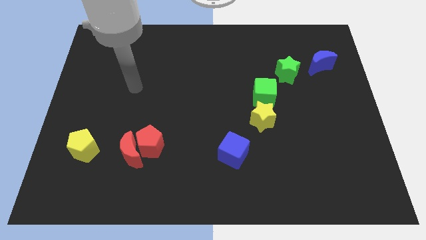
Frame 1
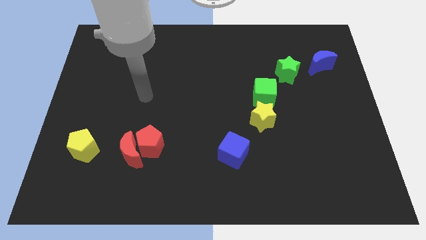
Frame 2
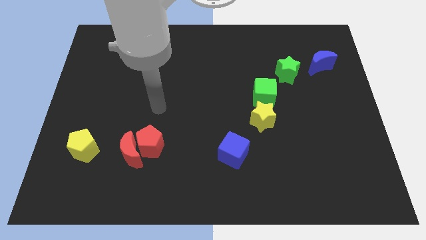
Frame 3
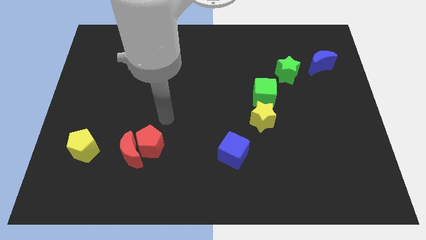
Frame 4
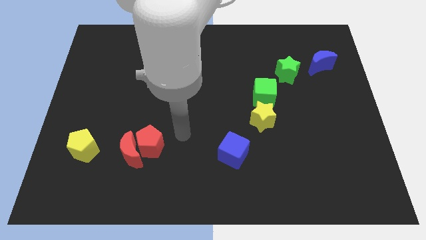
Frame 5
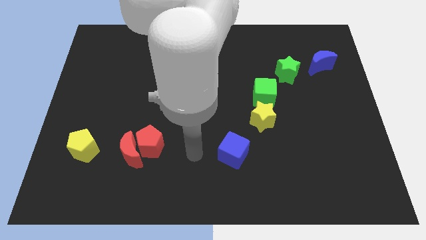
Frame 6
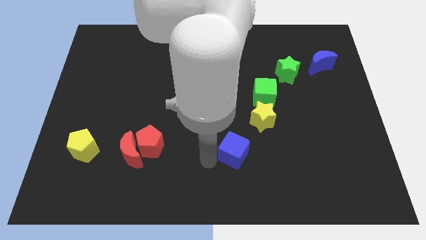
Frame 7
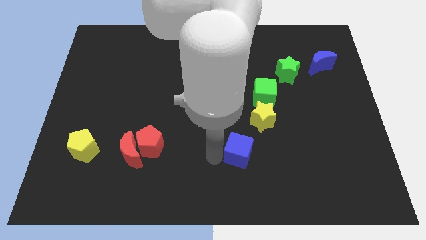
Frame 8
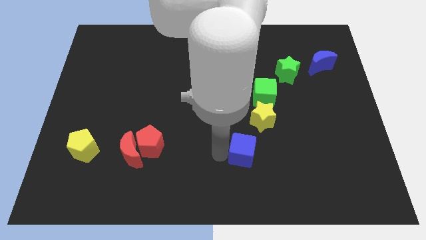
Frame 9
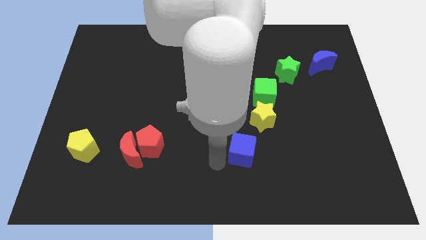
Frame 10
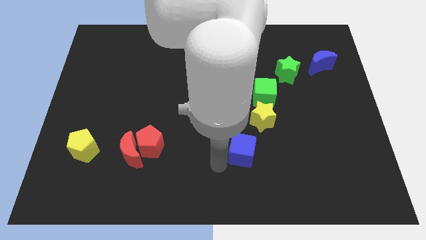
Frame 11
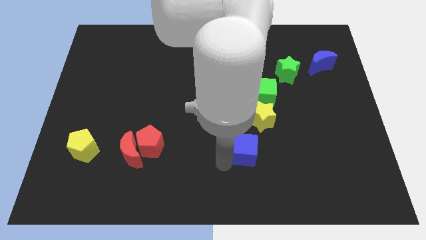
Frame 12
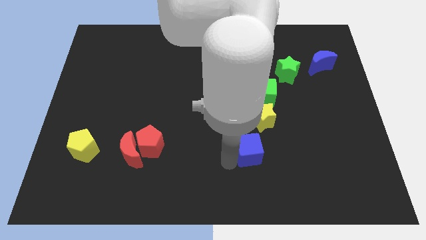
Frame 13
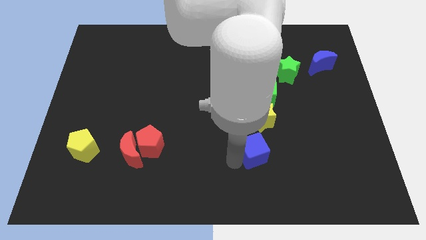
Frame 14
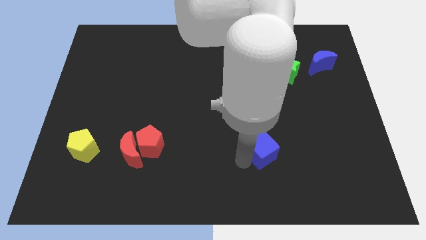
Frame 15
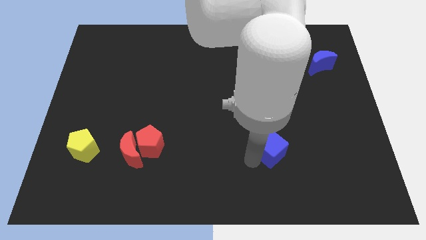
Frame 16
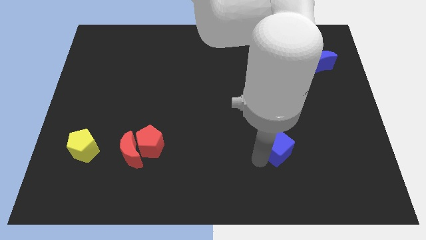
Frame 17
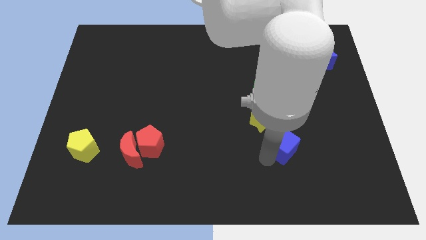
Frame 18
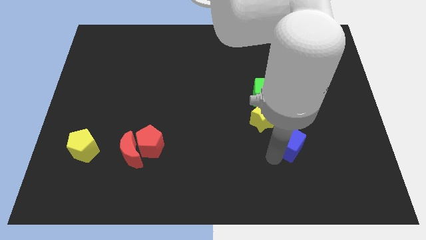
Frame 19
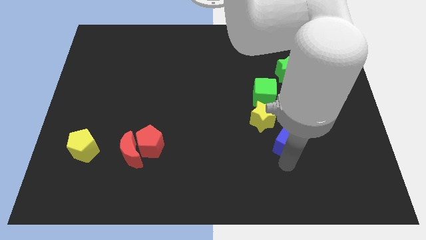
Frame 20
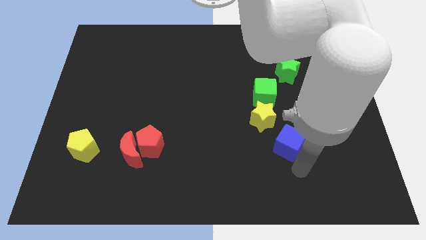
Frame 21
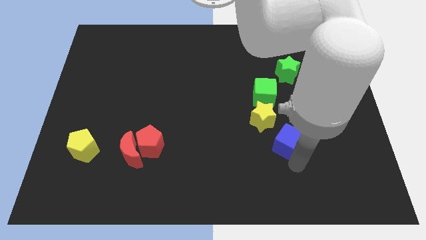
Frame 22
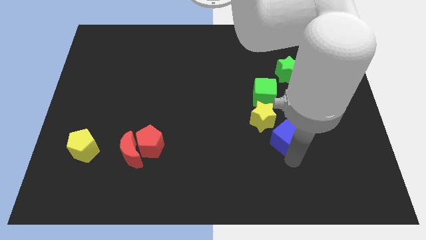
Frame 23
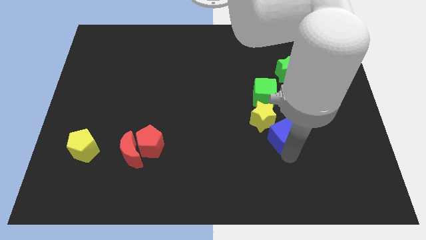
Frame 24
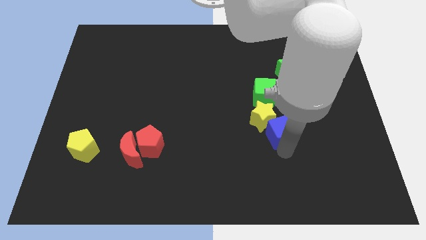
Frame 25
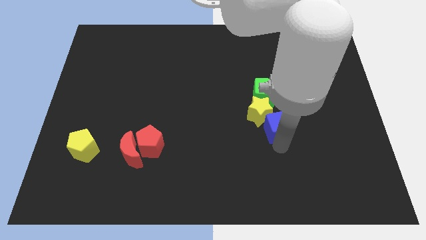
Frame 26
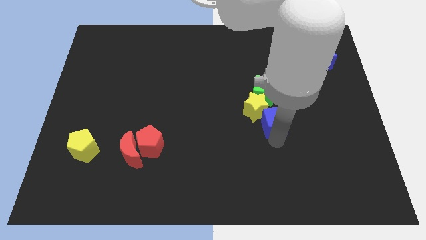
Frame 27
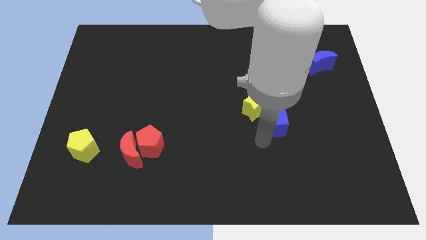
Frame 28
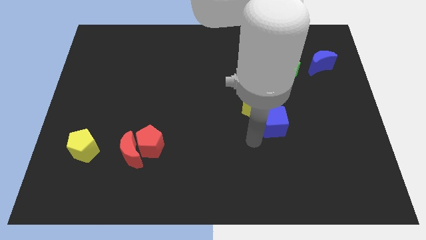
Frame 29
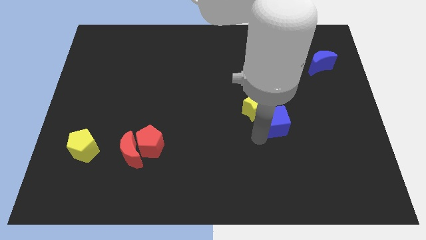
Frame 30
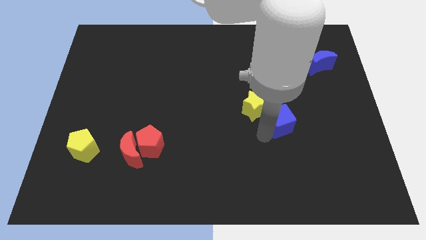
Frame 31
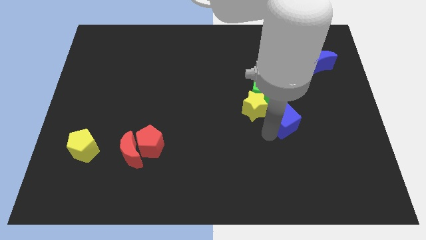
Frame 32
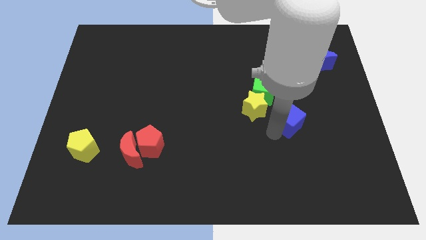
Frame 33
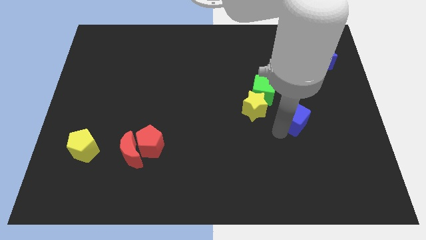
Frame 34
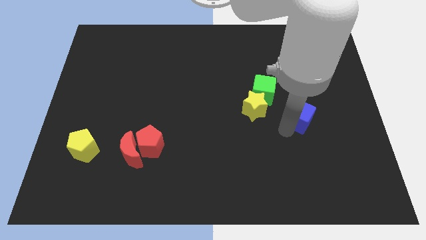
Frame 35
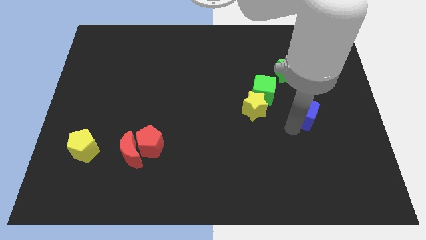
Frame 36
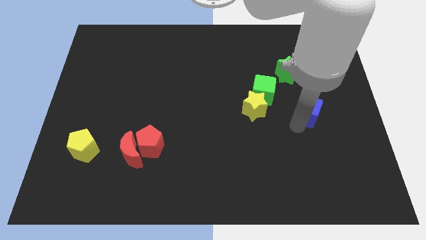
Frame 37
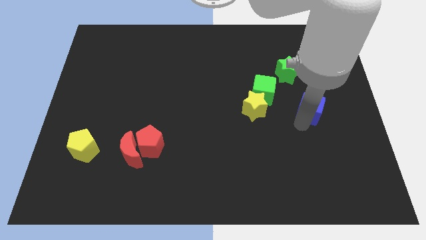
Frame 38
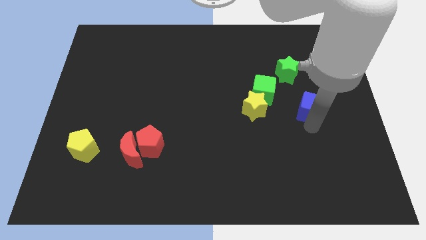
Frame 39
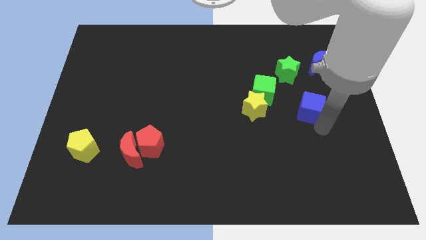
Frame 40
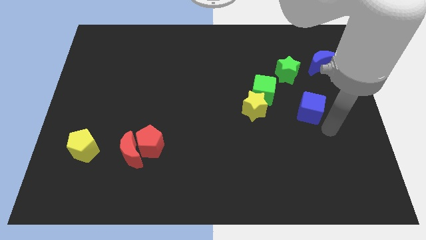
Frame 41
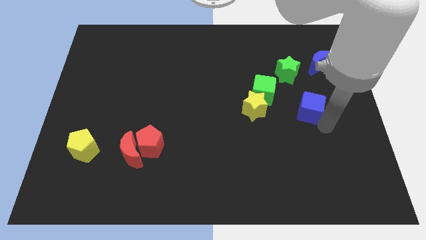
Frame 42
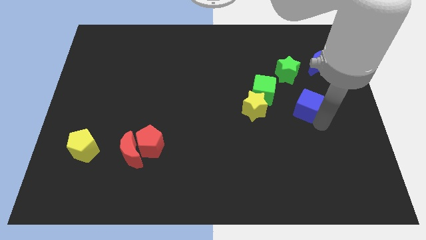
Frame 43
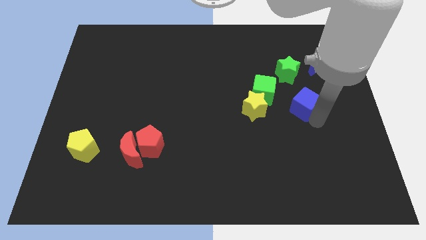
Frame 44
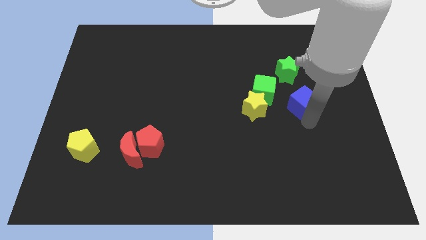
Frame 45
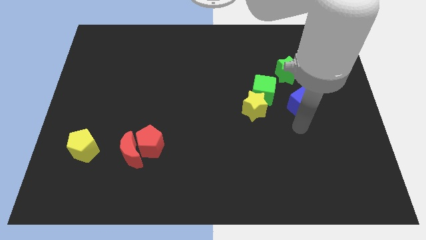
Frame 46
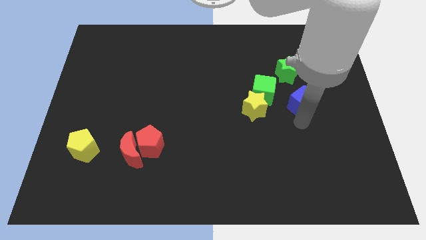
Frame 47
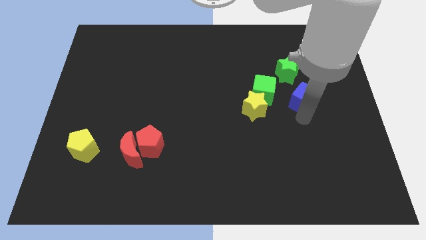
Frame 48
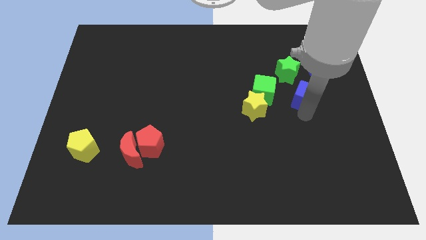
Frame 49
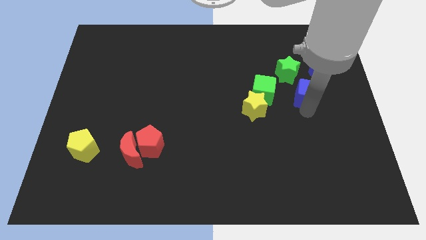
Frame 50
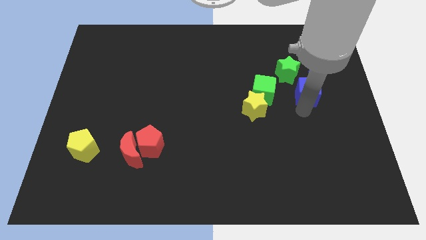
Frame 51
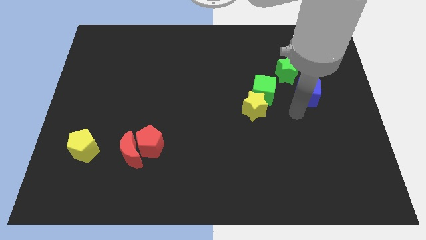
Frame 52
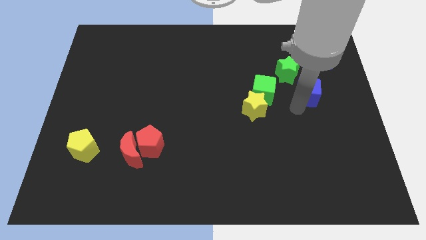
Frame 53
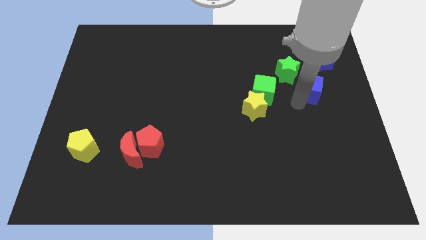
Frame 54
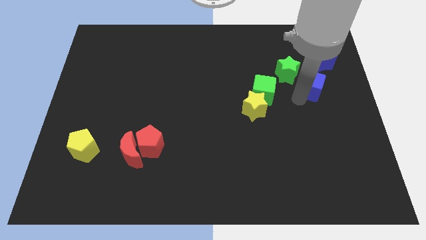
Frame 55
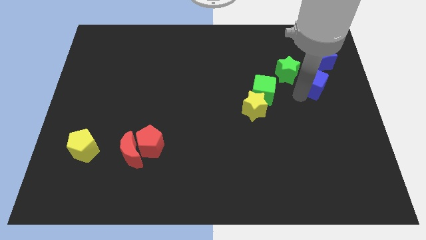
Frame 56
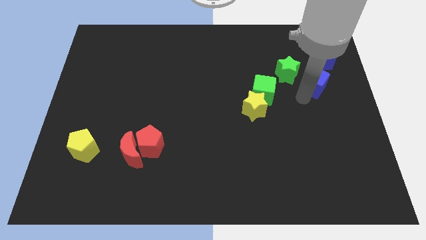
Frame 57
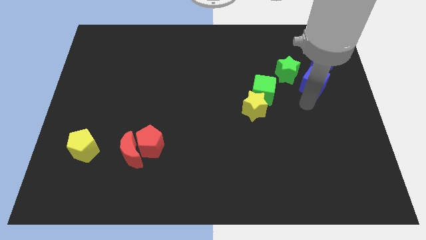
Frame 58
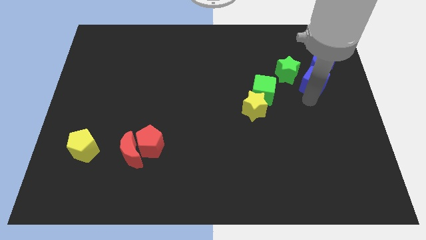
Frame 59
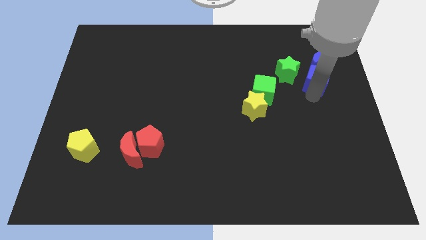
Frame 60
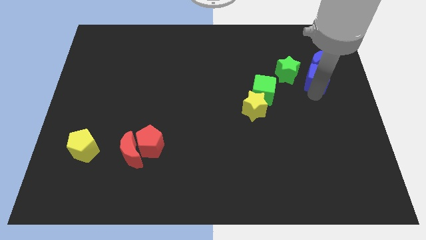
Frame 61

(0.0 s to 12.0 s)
put the blue cube close to the blue moon

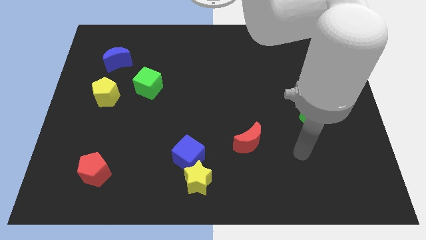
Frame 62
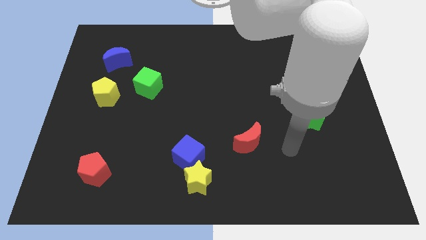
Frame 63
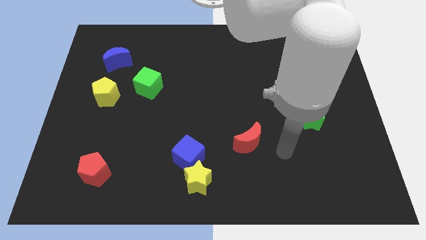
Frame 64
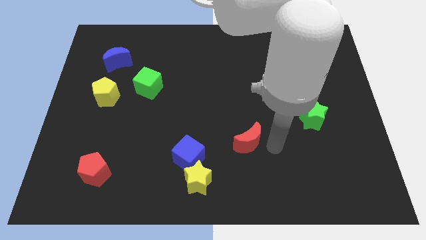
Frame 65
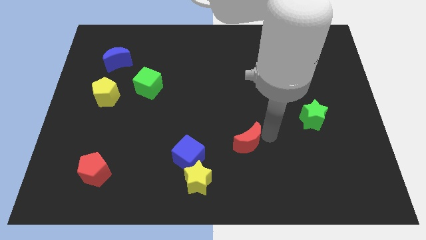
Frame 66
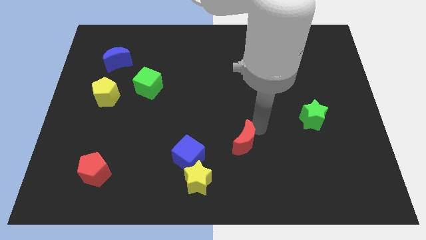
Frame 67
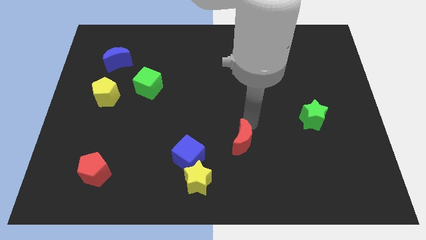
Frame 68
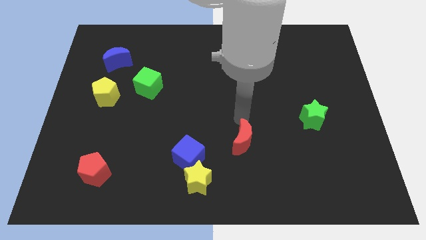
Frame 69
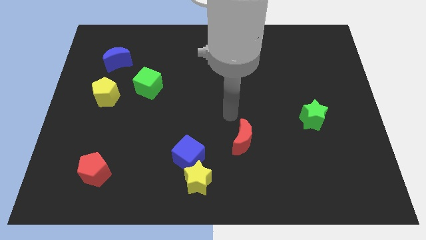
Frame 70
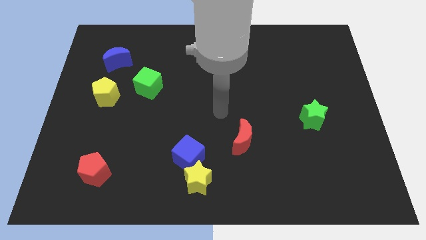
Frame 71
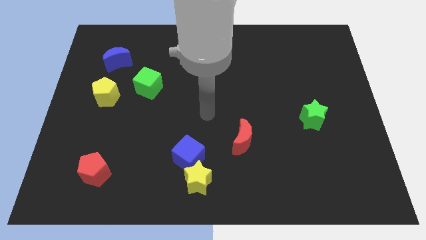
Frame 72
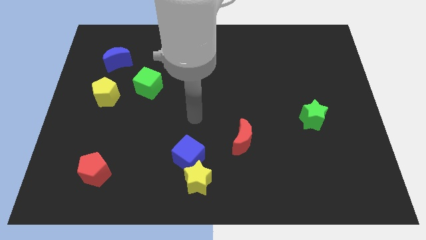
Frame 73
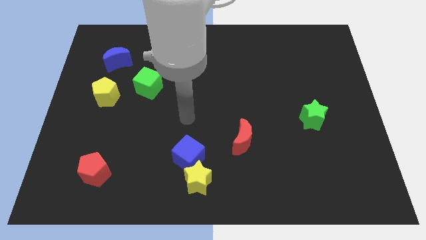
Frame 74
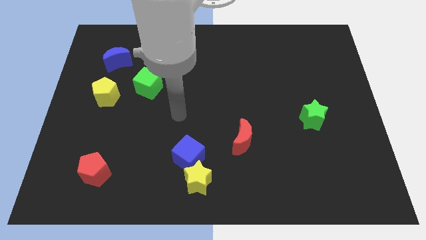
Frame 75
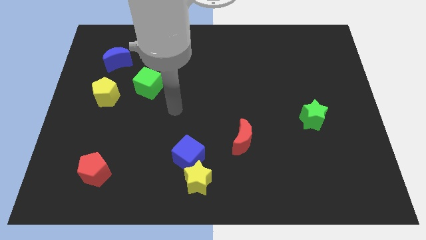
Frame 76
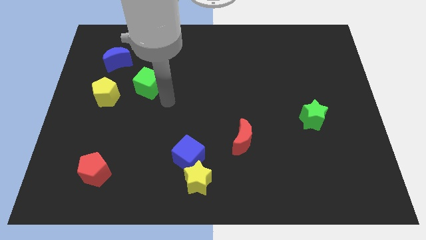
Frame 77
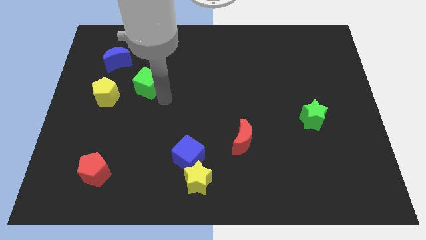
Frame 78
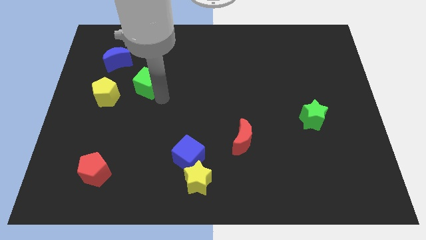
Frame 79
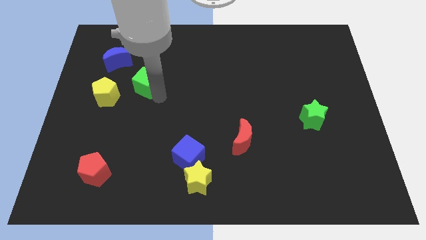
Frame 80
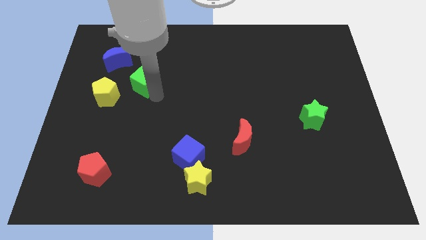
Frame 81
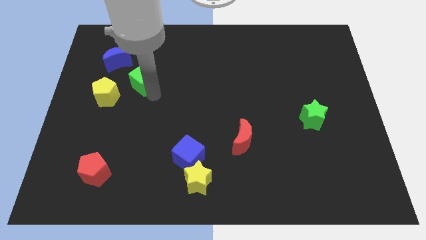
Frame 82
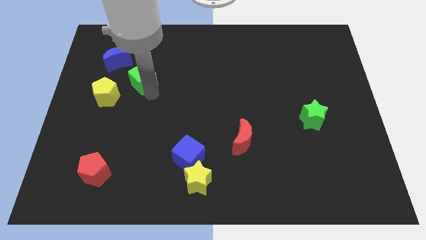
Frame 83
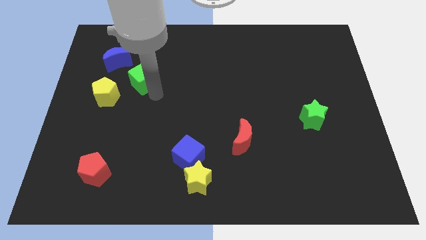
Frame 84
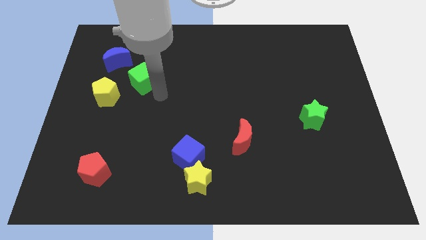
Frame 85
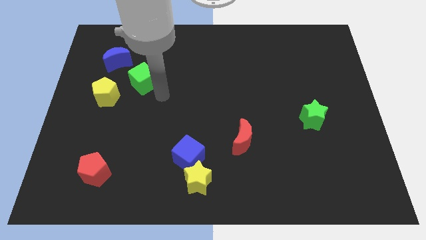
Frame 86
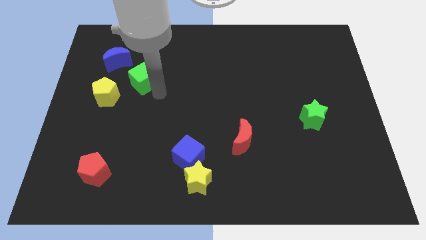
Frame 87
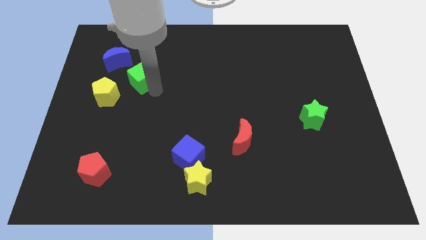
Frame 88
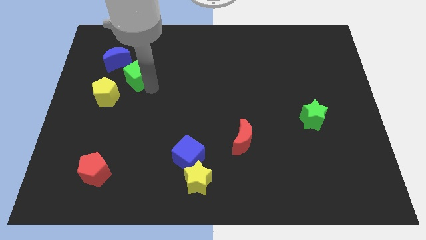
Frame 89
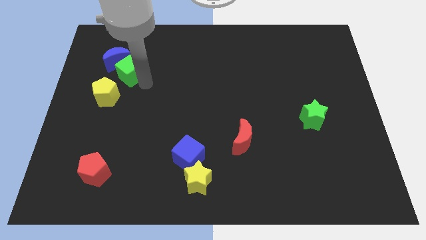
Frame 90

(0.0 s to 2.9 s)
push the green cube close to the blue moon
